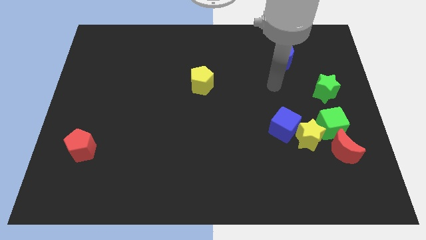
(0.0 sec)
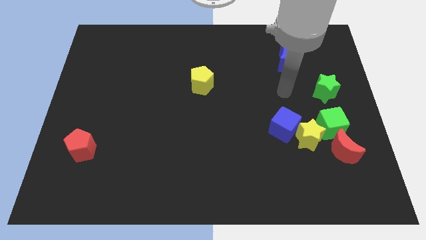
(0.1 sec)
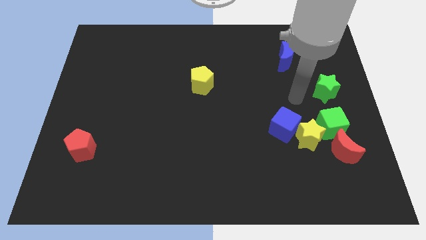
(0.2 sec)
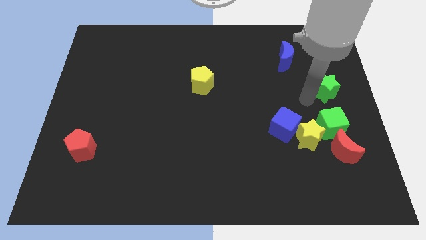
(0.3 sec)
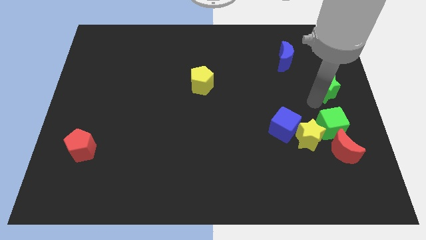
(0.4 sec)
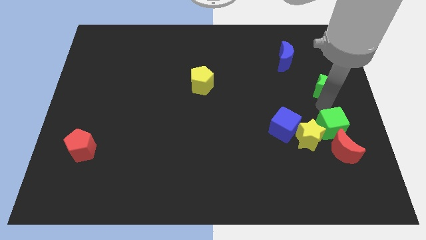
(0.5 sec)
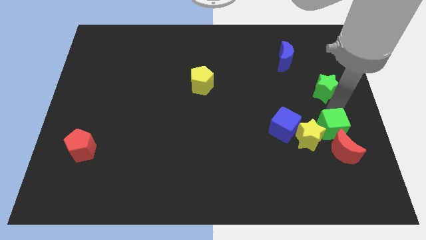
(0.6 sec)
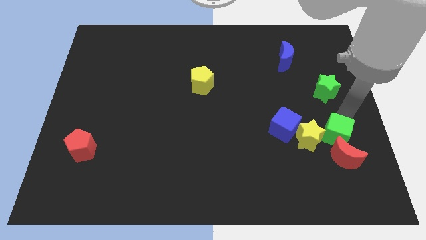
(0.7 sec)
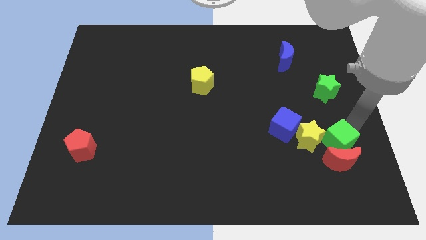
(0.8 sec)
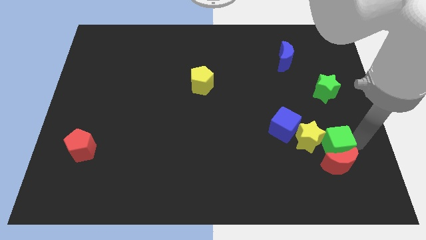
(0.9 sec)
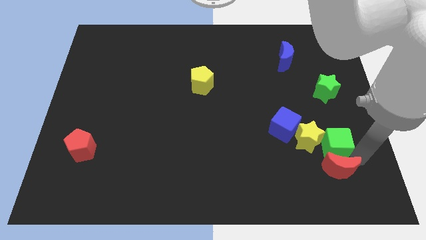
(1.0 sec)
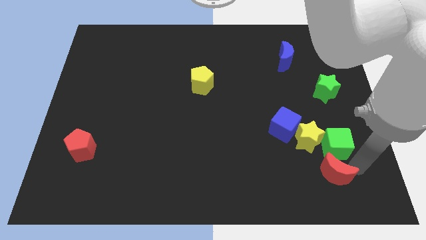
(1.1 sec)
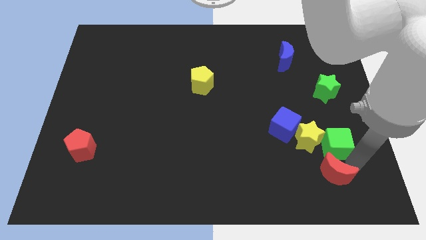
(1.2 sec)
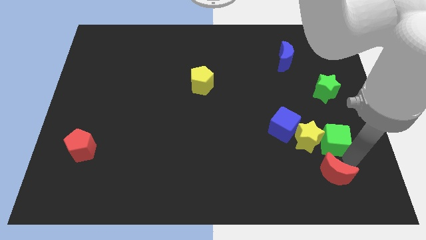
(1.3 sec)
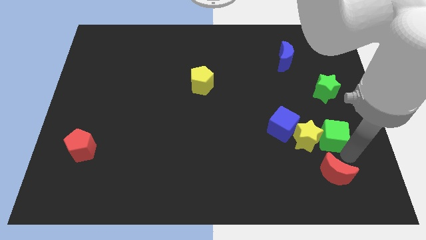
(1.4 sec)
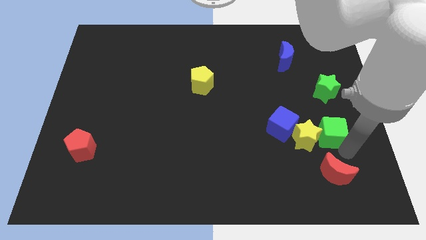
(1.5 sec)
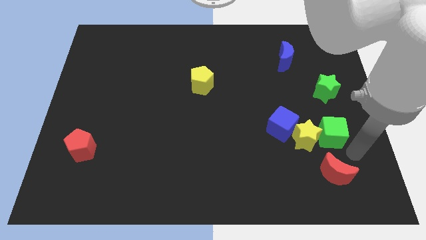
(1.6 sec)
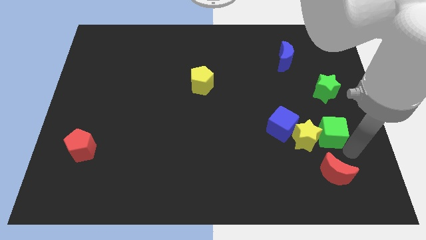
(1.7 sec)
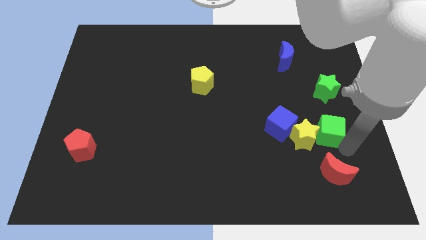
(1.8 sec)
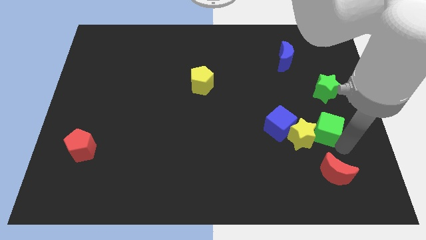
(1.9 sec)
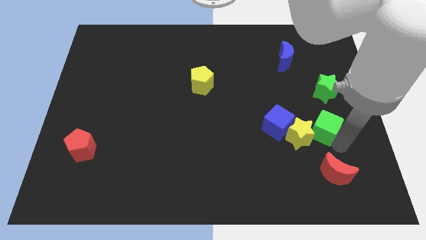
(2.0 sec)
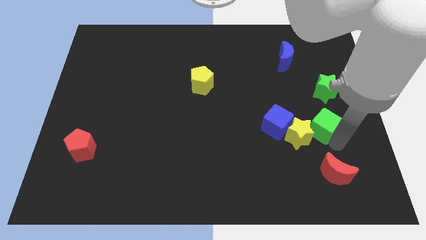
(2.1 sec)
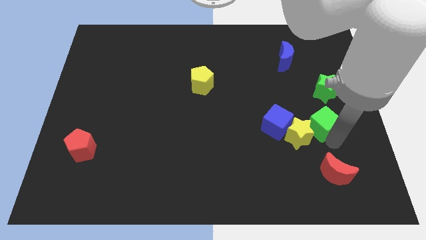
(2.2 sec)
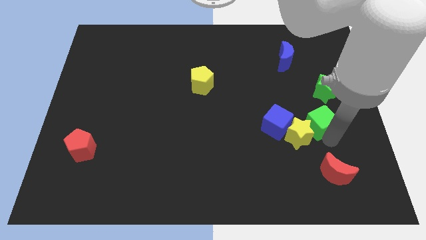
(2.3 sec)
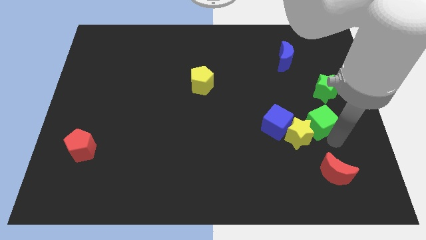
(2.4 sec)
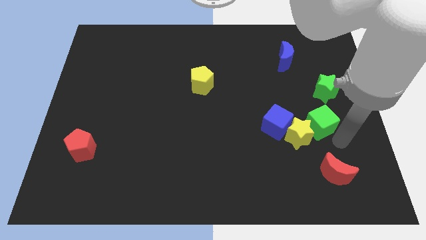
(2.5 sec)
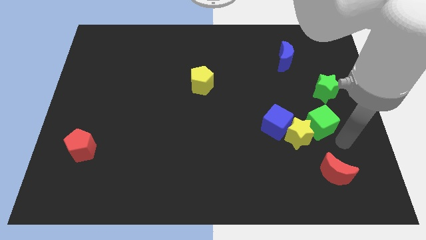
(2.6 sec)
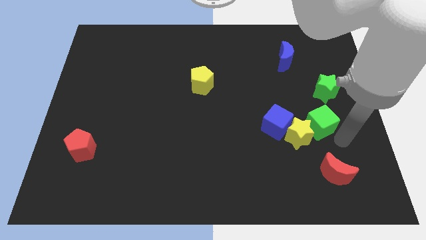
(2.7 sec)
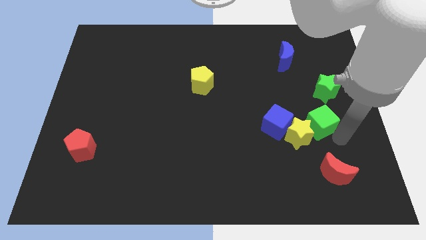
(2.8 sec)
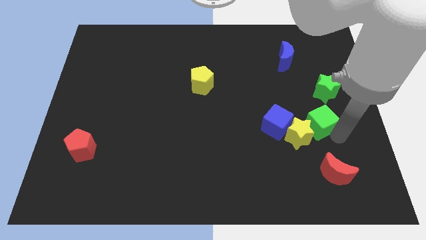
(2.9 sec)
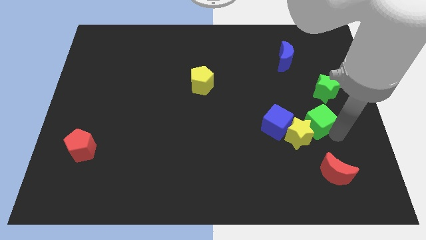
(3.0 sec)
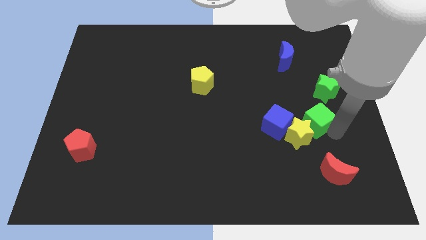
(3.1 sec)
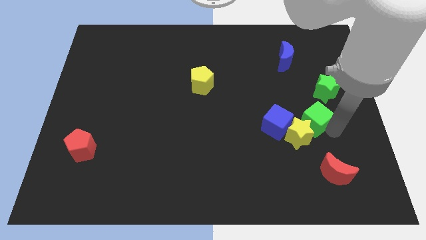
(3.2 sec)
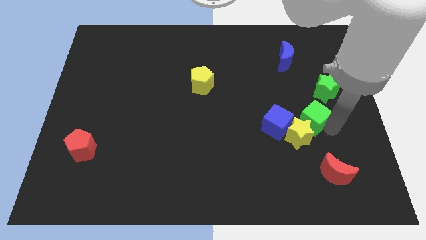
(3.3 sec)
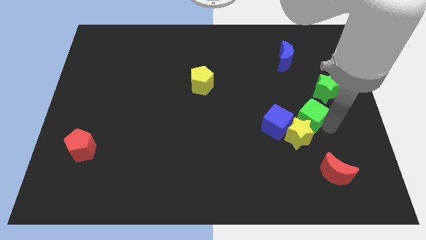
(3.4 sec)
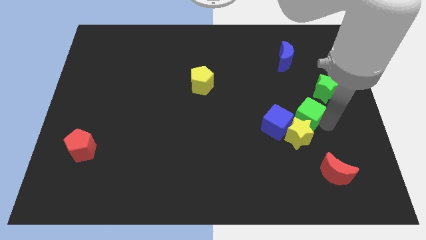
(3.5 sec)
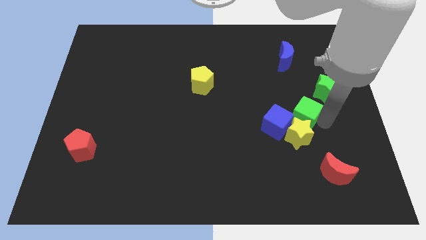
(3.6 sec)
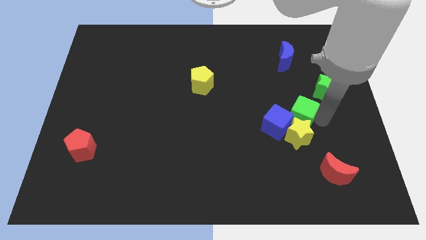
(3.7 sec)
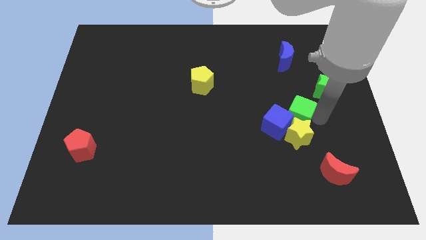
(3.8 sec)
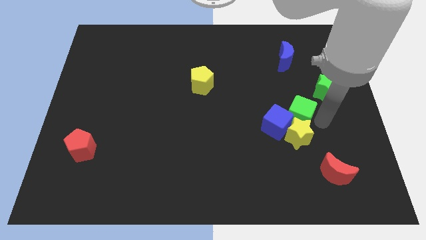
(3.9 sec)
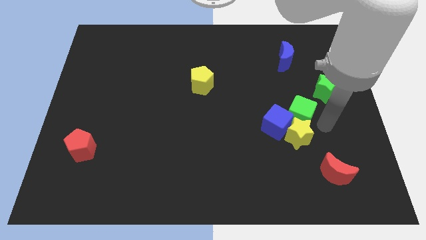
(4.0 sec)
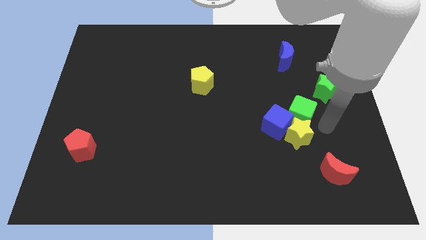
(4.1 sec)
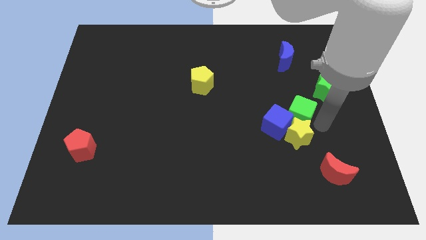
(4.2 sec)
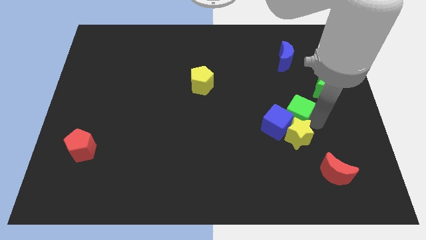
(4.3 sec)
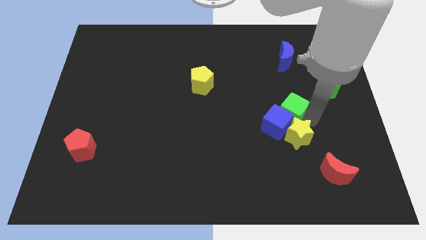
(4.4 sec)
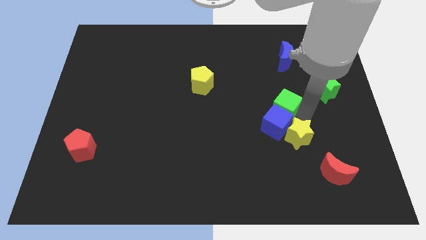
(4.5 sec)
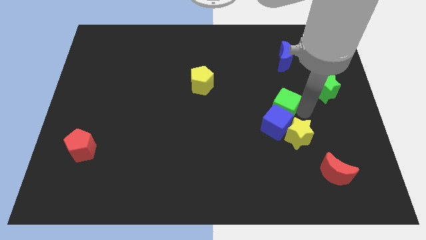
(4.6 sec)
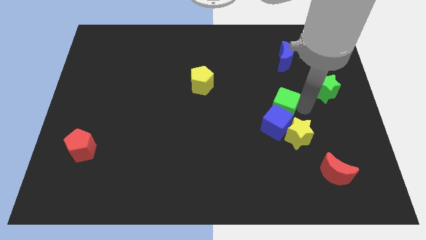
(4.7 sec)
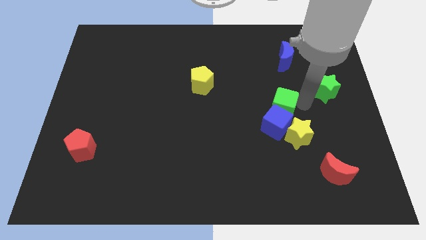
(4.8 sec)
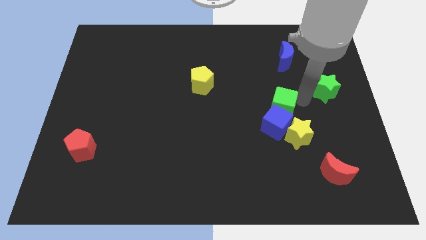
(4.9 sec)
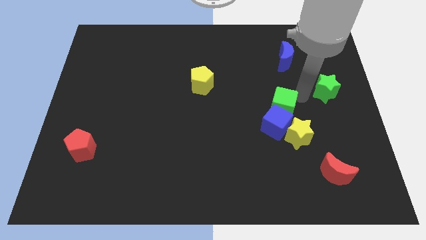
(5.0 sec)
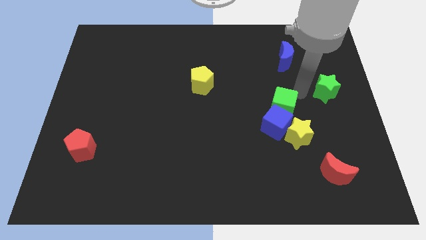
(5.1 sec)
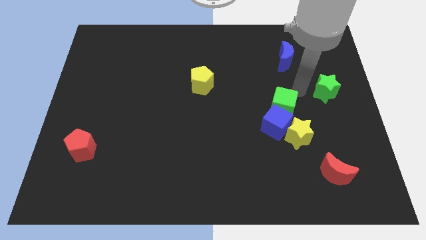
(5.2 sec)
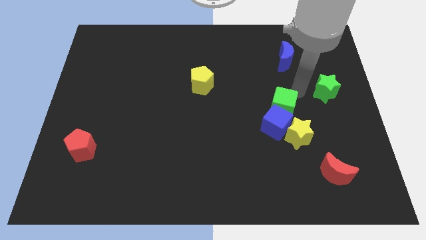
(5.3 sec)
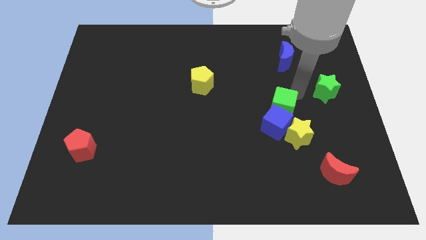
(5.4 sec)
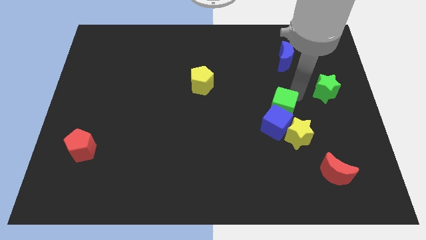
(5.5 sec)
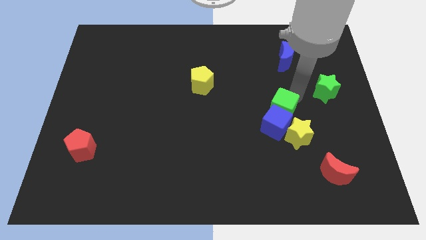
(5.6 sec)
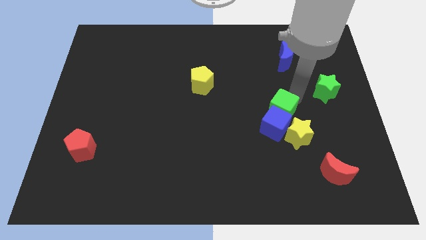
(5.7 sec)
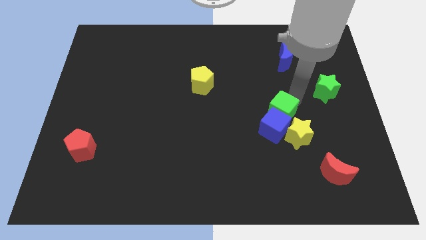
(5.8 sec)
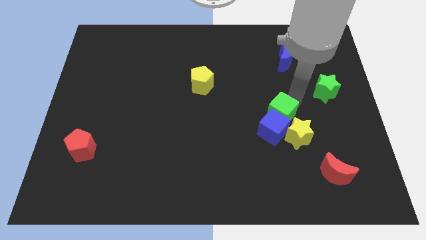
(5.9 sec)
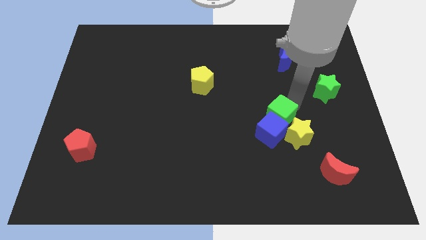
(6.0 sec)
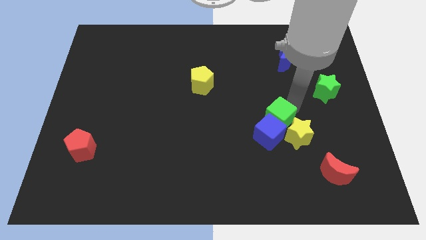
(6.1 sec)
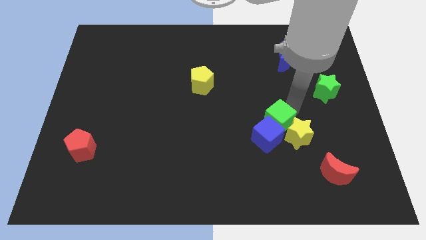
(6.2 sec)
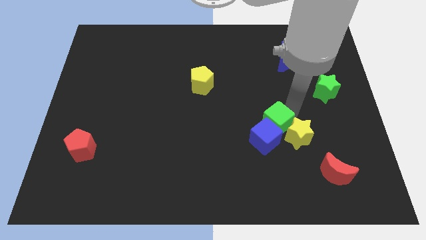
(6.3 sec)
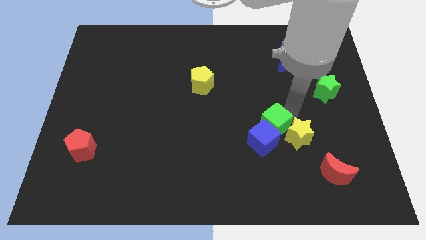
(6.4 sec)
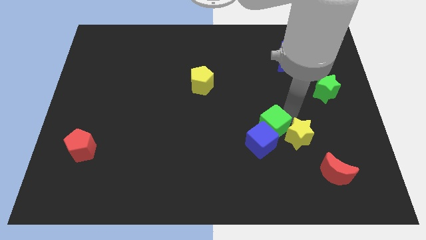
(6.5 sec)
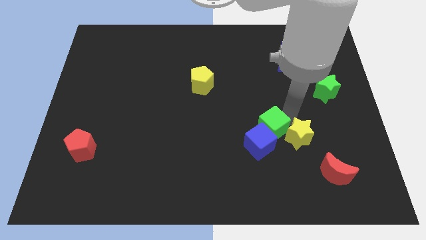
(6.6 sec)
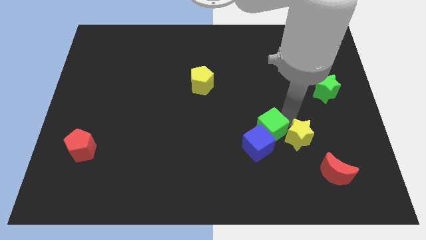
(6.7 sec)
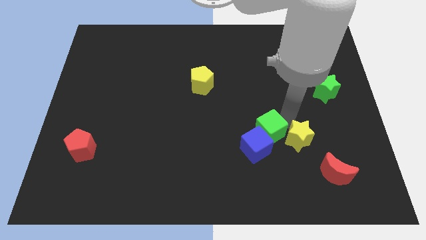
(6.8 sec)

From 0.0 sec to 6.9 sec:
move the green cube down and then to the left somewhat

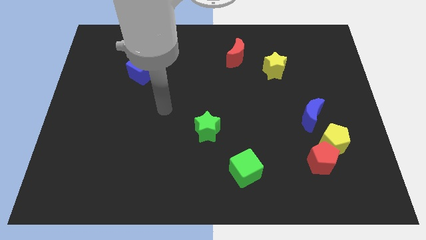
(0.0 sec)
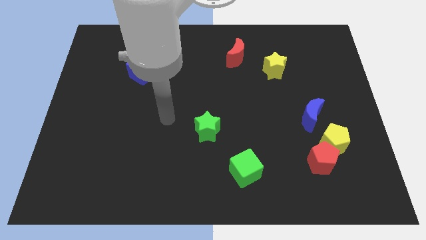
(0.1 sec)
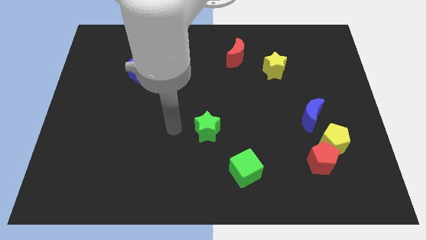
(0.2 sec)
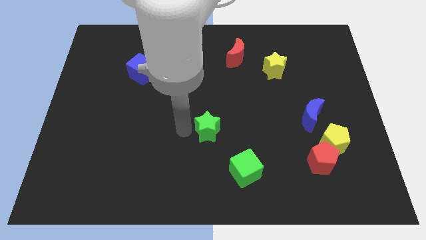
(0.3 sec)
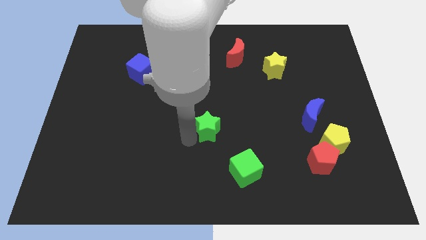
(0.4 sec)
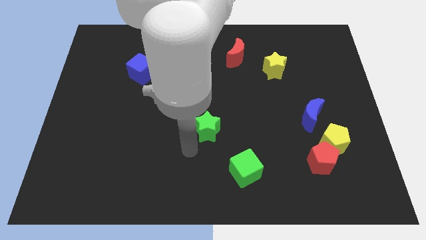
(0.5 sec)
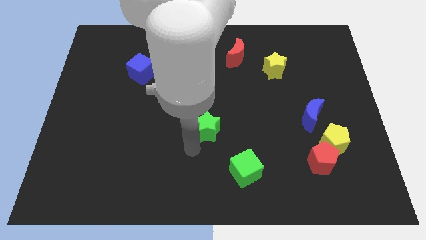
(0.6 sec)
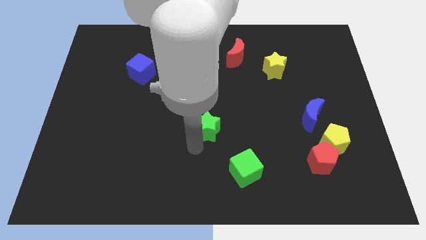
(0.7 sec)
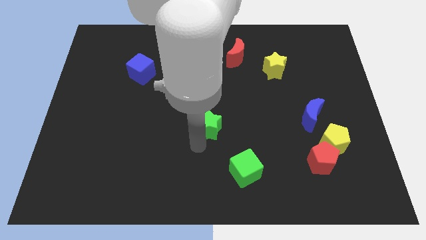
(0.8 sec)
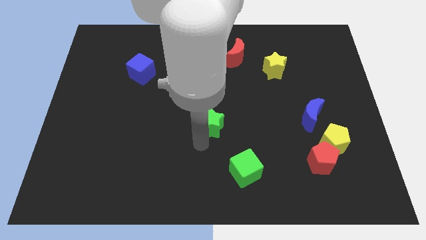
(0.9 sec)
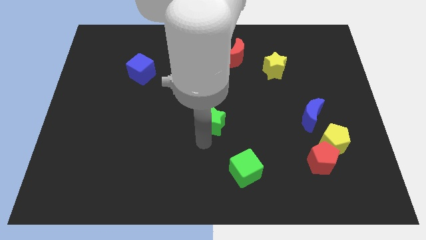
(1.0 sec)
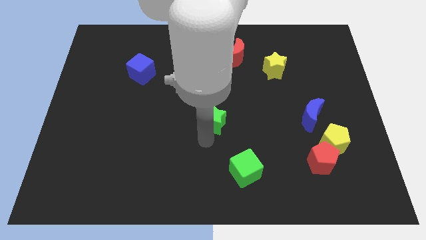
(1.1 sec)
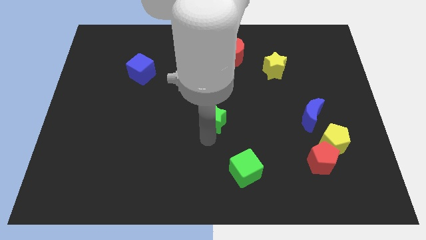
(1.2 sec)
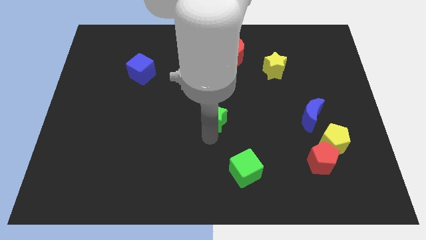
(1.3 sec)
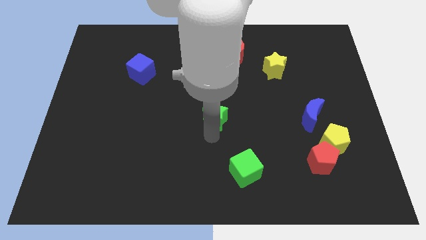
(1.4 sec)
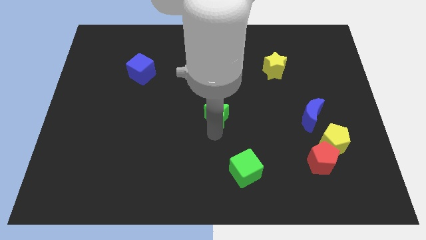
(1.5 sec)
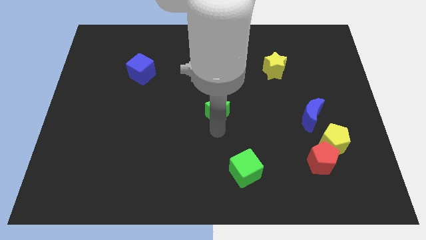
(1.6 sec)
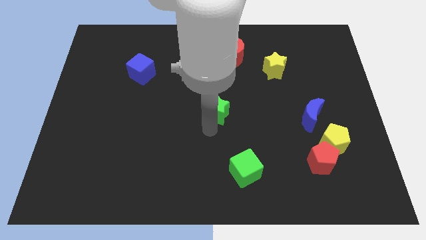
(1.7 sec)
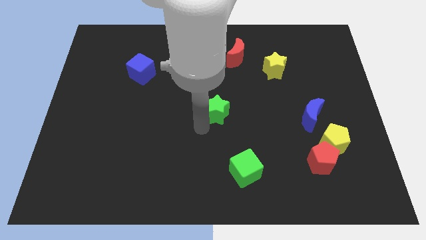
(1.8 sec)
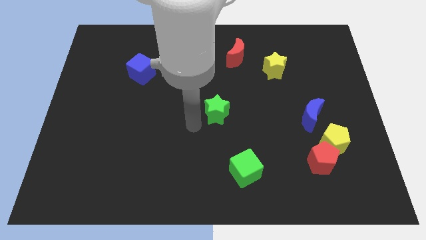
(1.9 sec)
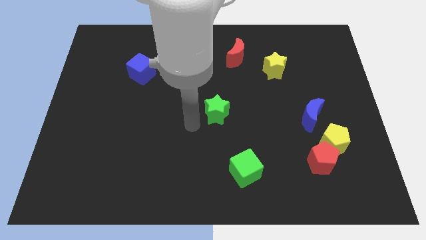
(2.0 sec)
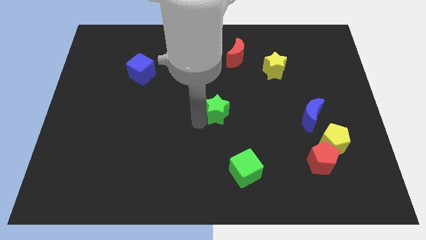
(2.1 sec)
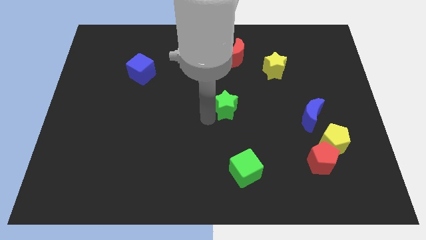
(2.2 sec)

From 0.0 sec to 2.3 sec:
slightly push the green star up and then right
